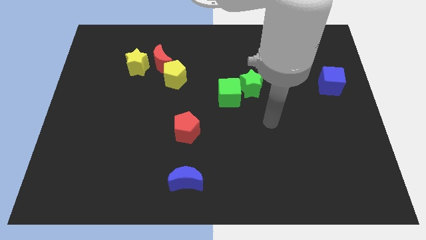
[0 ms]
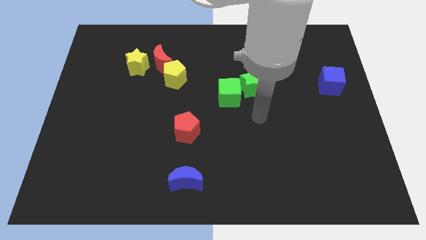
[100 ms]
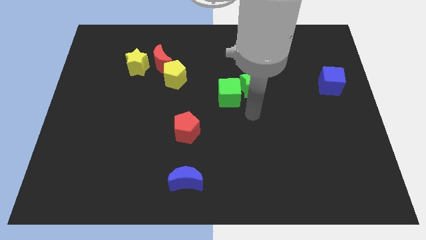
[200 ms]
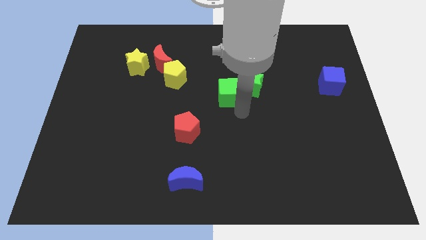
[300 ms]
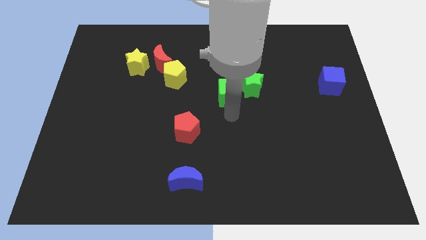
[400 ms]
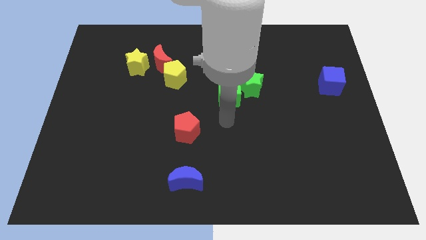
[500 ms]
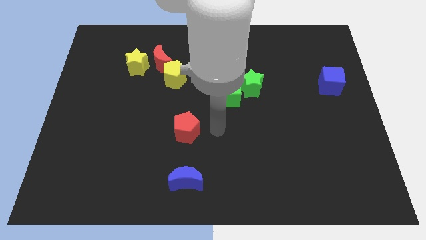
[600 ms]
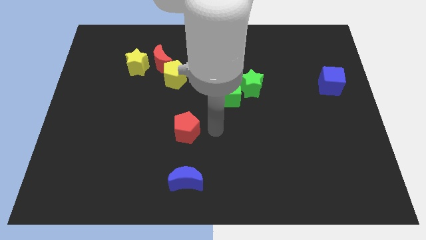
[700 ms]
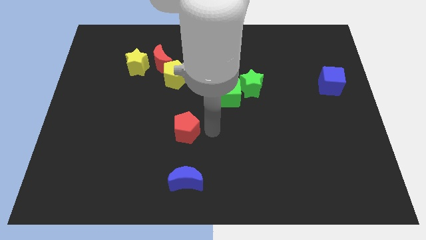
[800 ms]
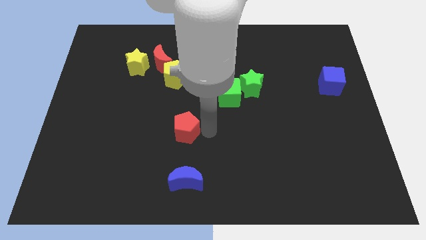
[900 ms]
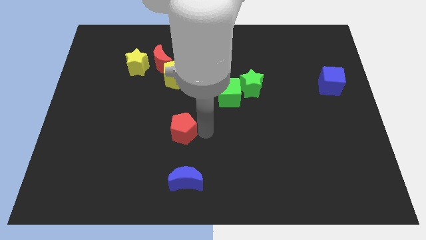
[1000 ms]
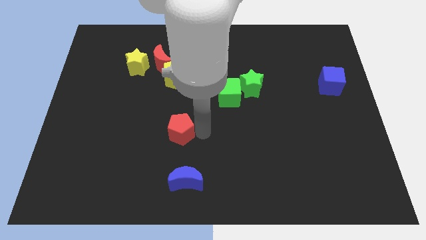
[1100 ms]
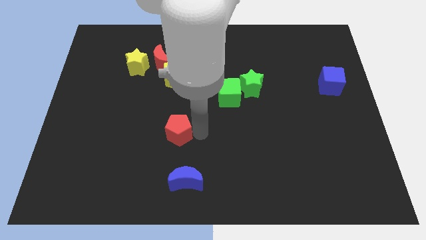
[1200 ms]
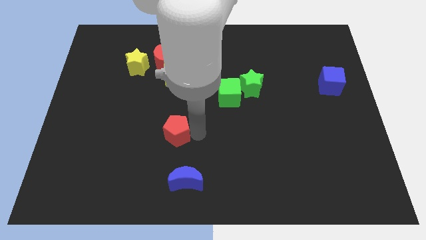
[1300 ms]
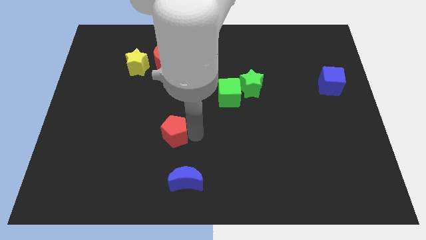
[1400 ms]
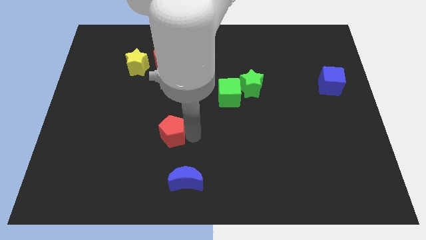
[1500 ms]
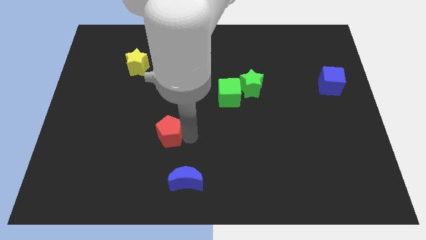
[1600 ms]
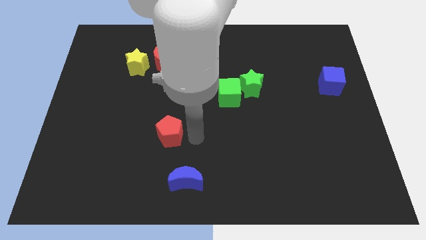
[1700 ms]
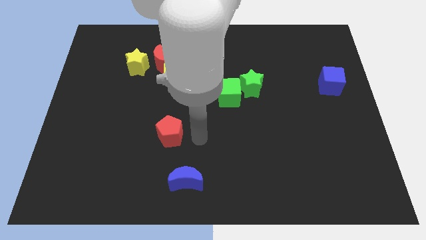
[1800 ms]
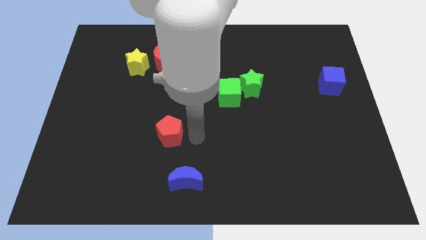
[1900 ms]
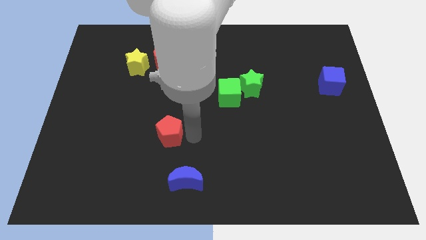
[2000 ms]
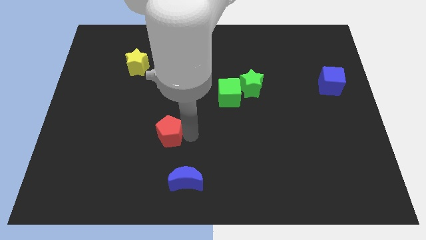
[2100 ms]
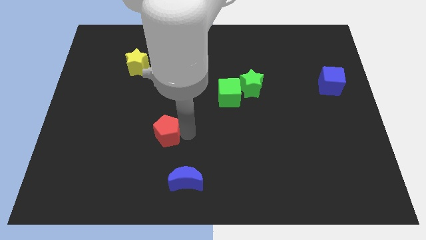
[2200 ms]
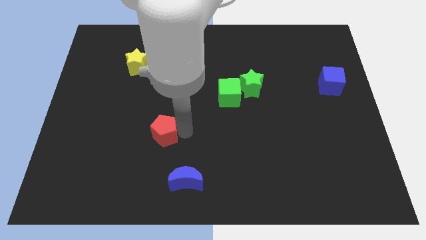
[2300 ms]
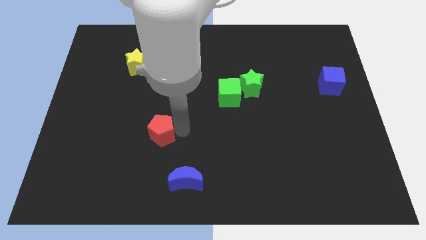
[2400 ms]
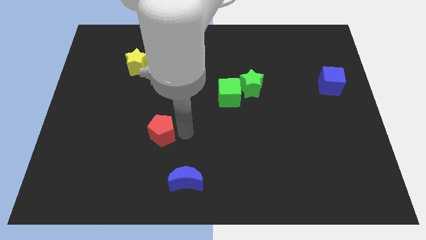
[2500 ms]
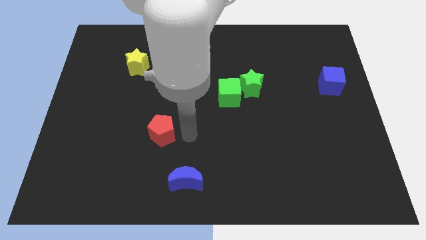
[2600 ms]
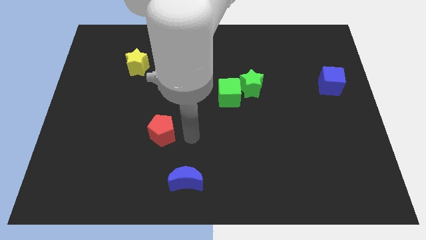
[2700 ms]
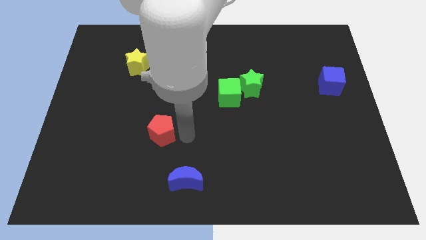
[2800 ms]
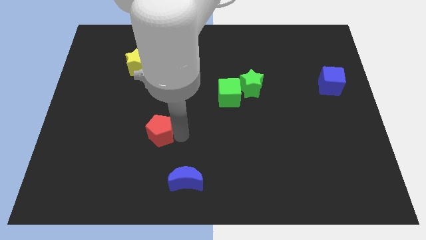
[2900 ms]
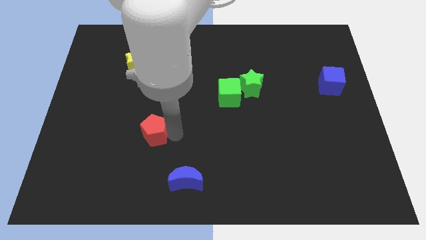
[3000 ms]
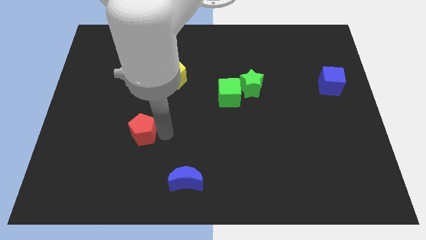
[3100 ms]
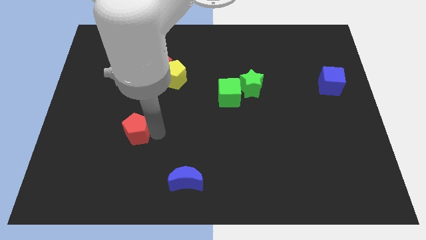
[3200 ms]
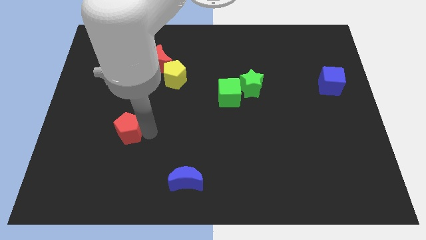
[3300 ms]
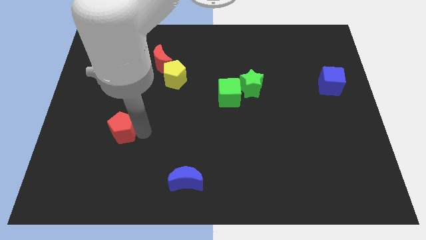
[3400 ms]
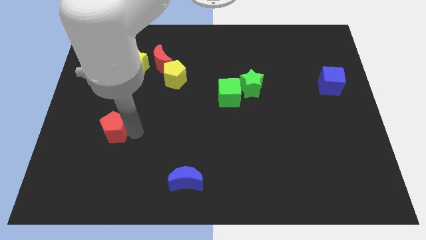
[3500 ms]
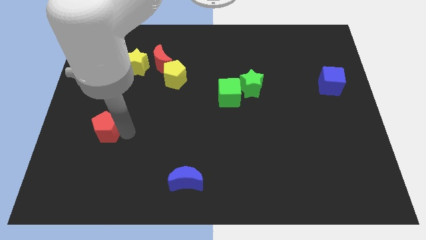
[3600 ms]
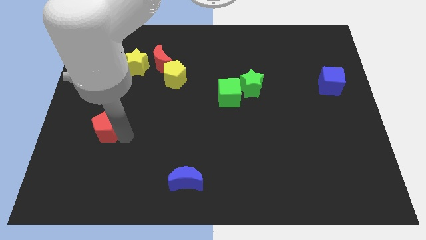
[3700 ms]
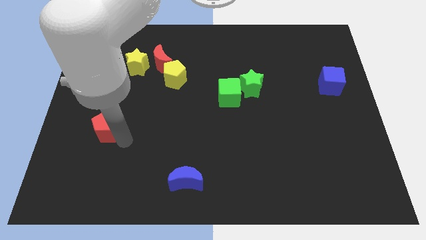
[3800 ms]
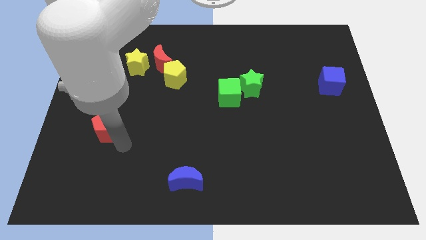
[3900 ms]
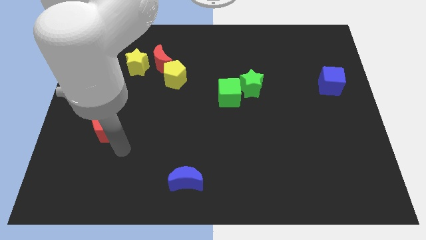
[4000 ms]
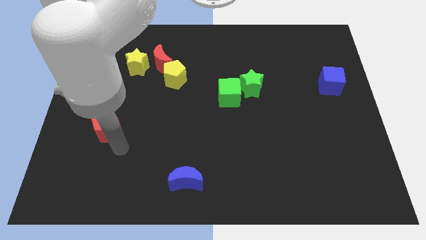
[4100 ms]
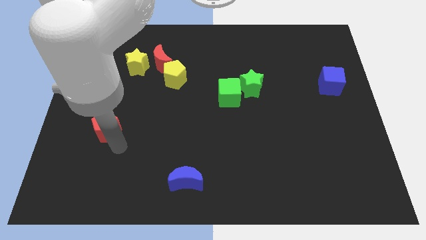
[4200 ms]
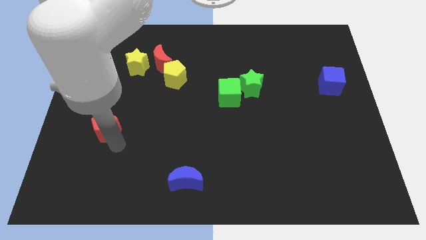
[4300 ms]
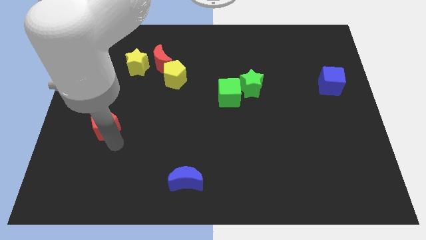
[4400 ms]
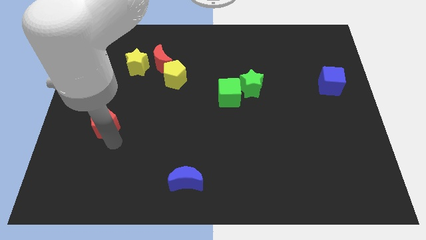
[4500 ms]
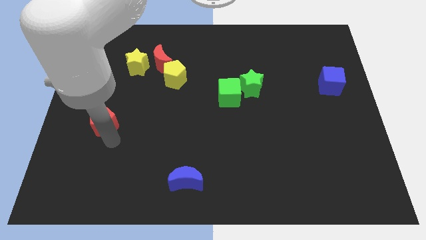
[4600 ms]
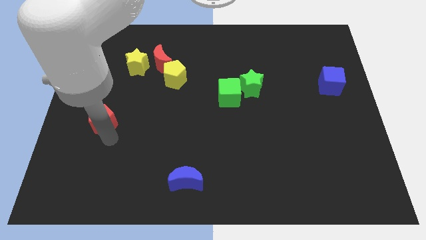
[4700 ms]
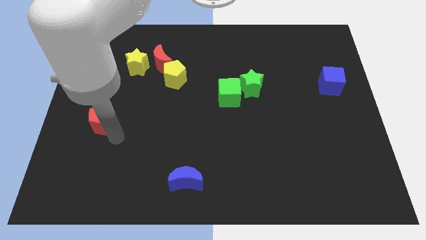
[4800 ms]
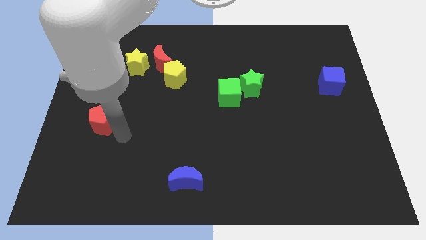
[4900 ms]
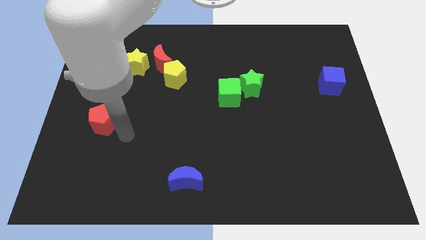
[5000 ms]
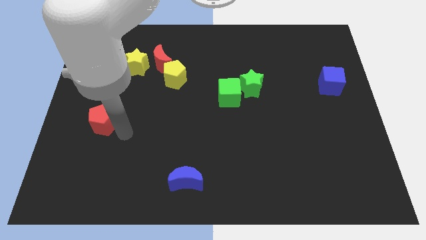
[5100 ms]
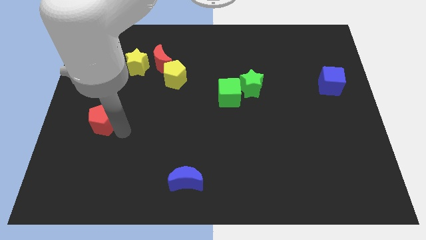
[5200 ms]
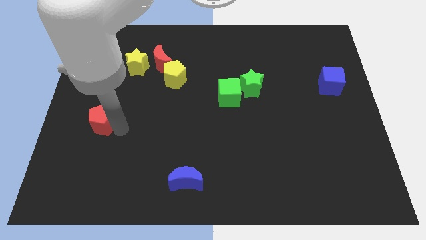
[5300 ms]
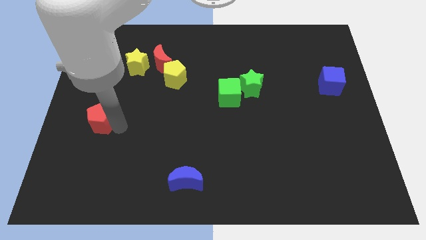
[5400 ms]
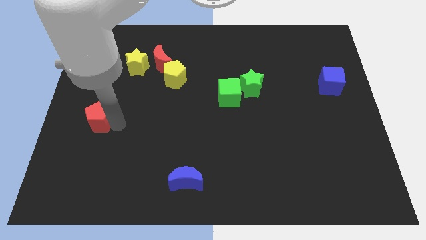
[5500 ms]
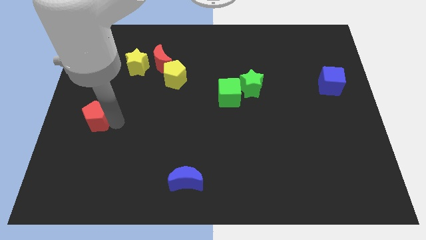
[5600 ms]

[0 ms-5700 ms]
put the red pentagon to the left side of the board

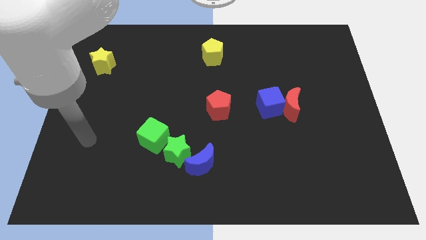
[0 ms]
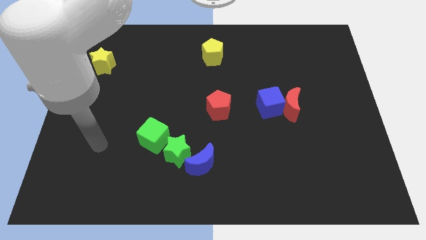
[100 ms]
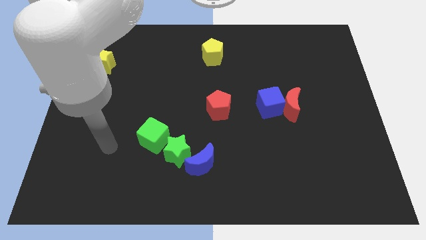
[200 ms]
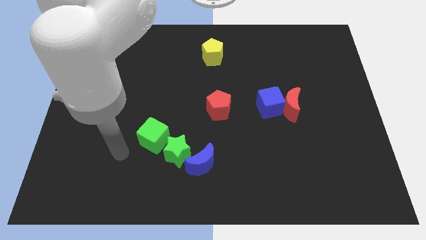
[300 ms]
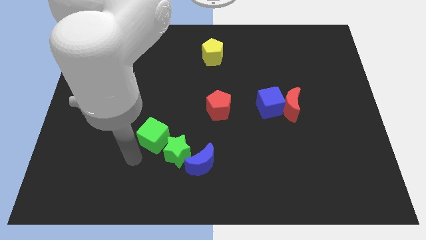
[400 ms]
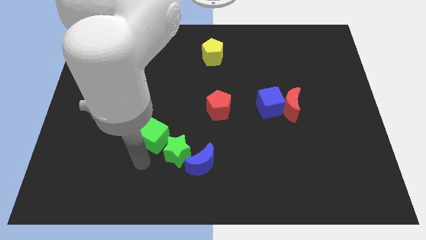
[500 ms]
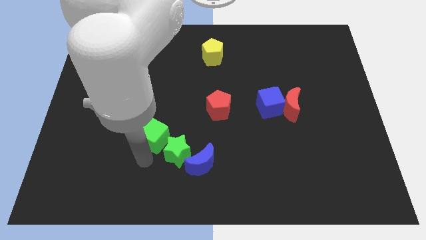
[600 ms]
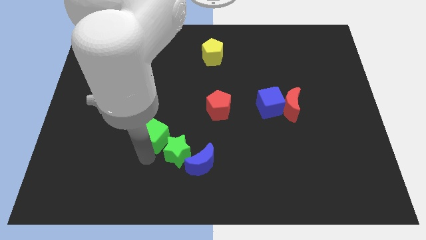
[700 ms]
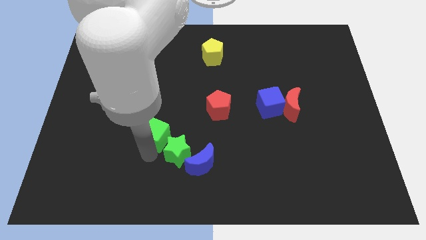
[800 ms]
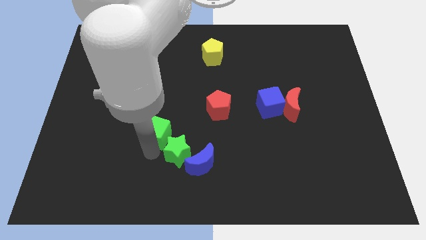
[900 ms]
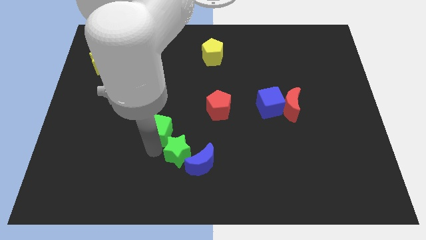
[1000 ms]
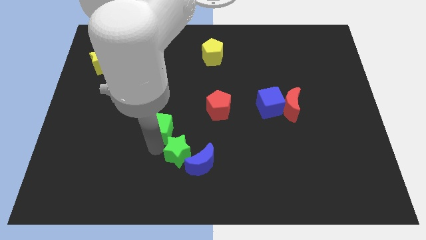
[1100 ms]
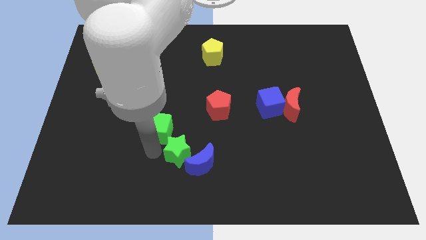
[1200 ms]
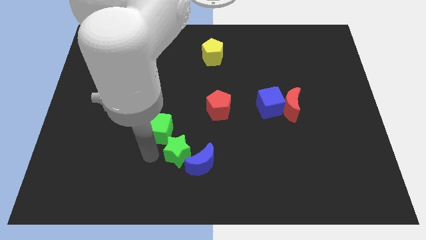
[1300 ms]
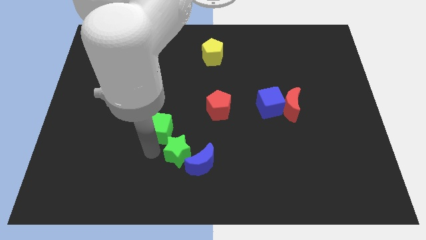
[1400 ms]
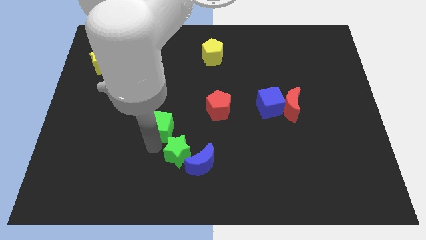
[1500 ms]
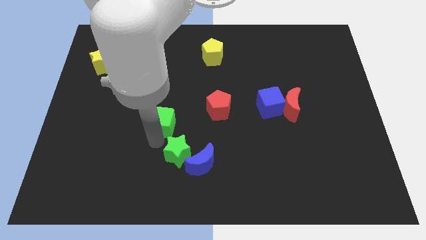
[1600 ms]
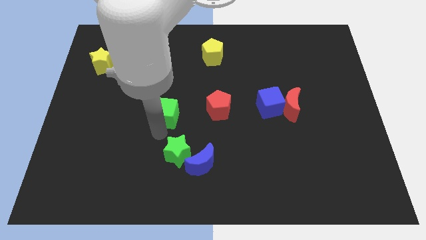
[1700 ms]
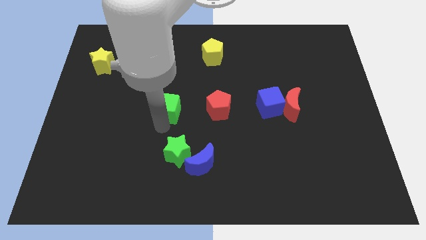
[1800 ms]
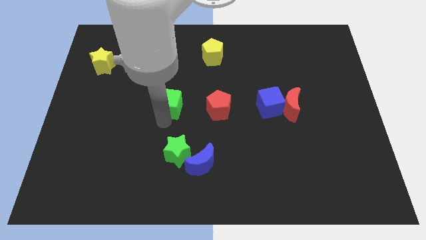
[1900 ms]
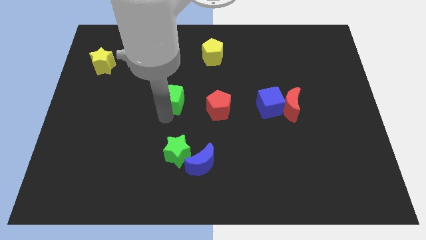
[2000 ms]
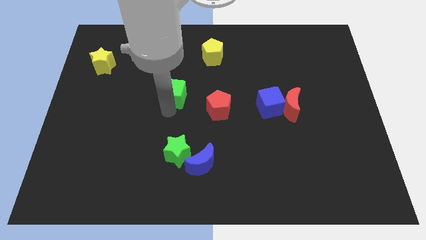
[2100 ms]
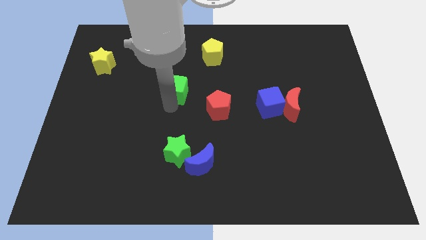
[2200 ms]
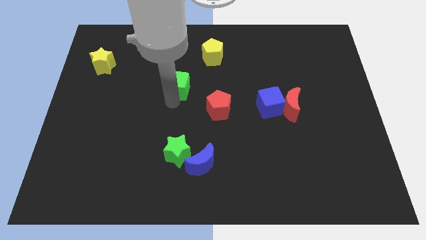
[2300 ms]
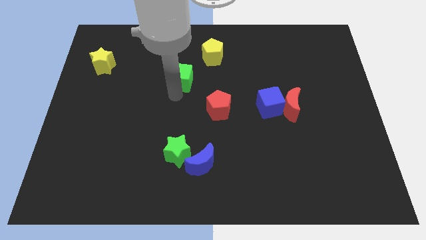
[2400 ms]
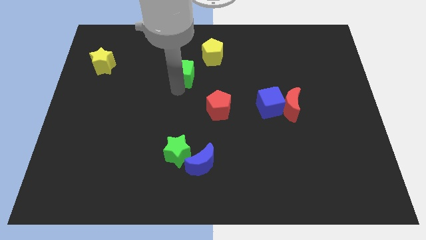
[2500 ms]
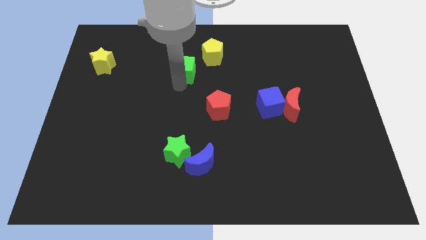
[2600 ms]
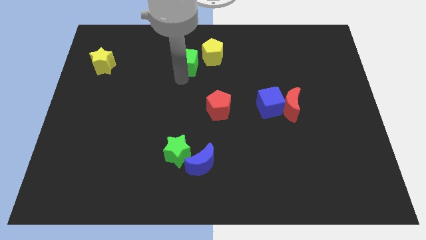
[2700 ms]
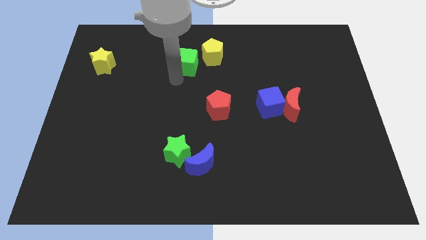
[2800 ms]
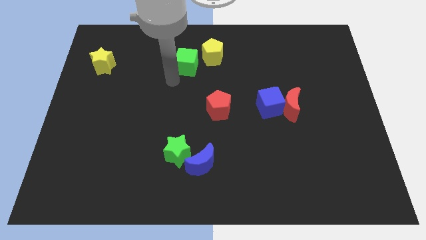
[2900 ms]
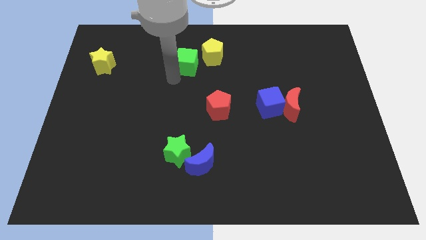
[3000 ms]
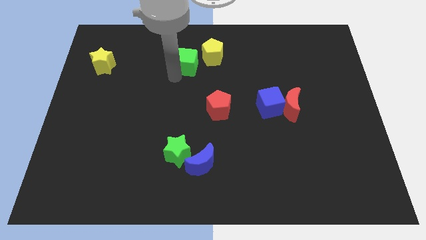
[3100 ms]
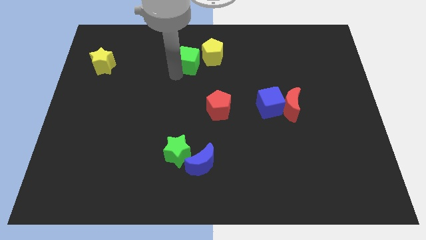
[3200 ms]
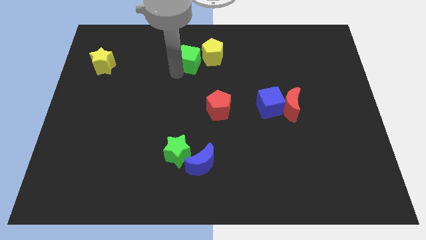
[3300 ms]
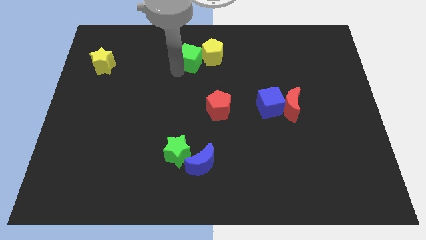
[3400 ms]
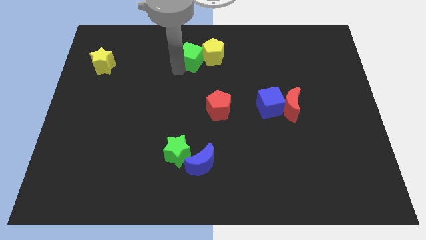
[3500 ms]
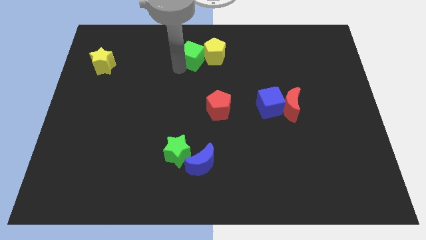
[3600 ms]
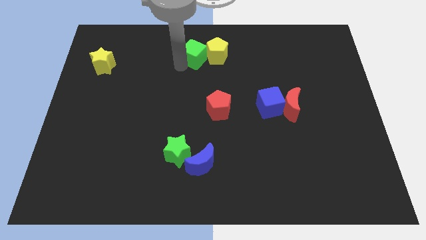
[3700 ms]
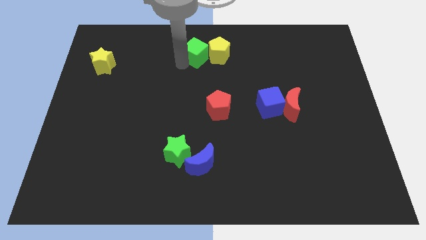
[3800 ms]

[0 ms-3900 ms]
slide the green cube to the top
